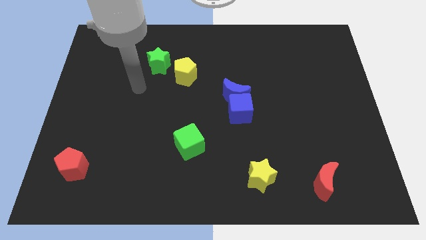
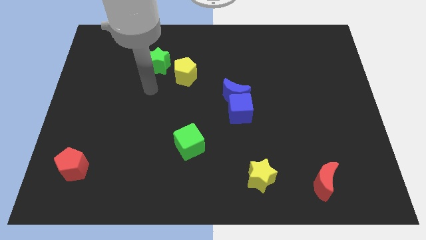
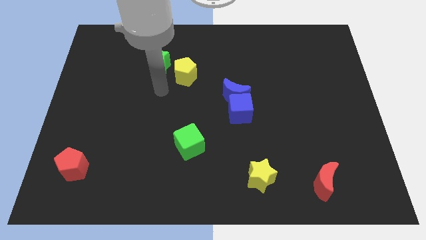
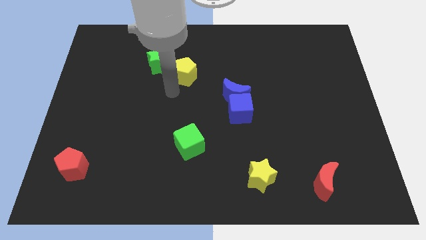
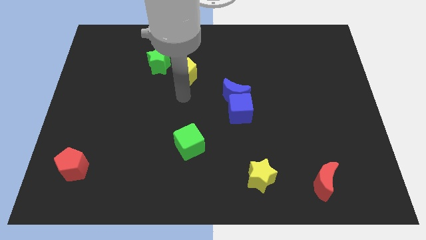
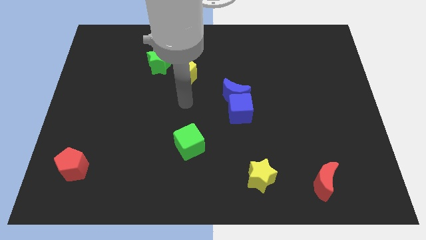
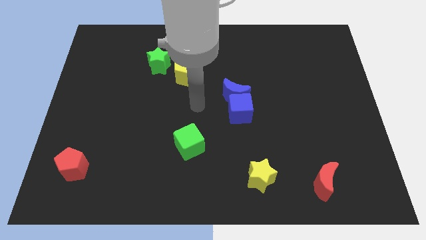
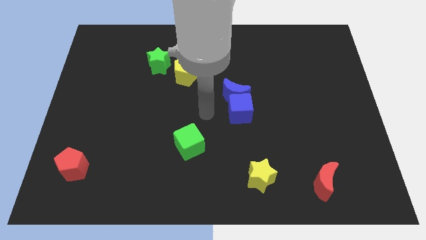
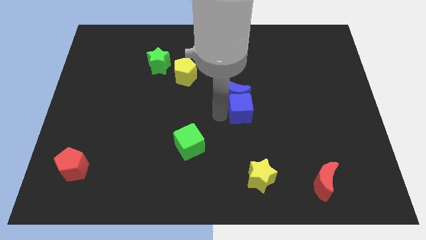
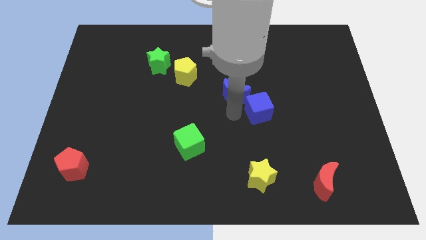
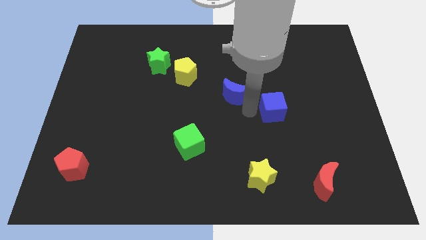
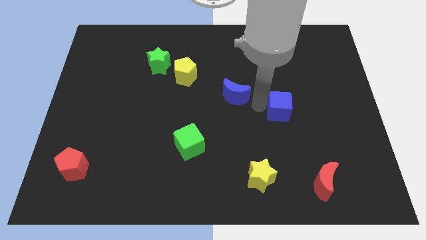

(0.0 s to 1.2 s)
separate the blue moon from the blue cube

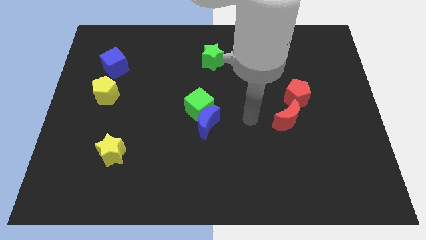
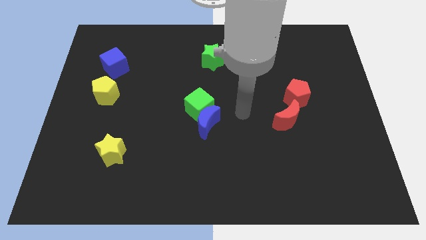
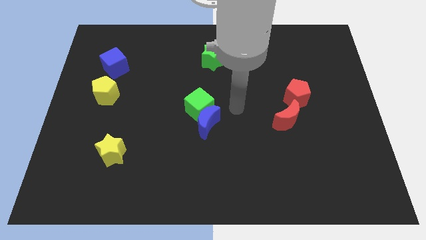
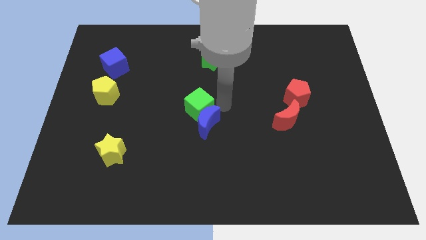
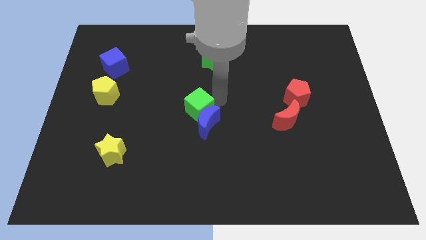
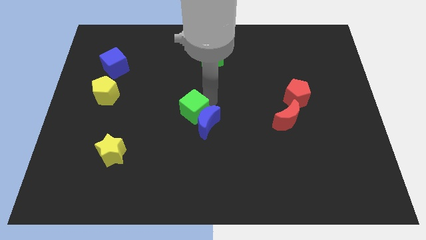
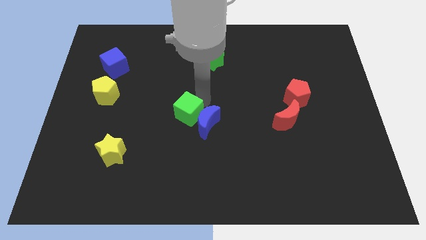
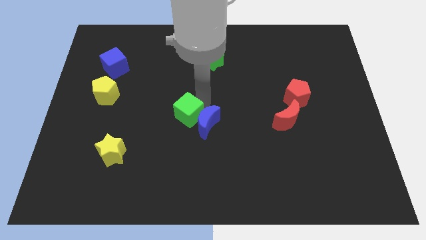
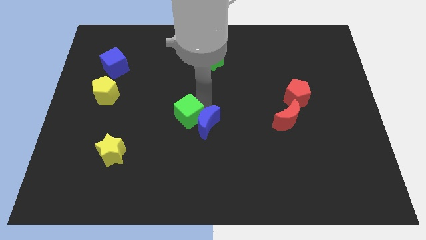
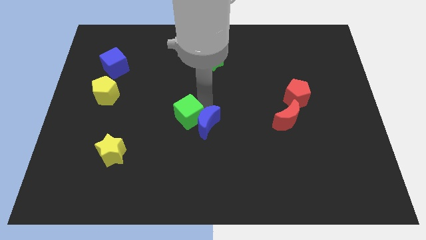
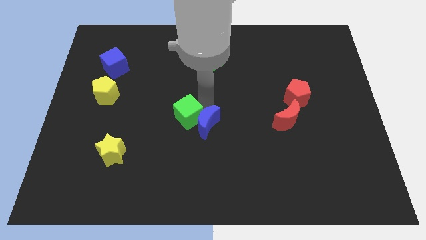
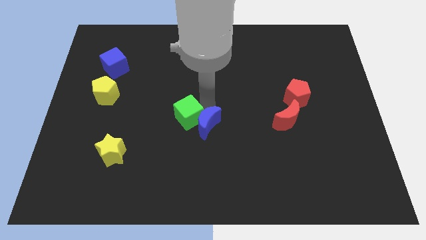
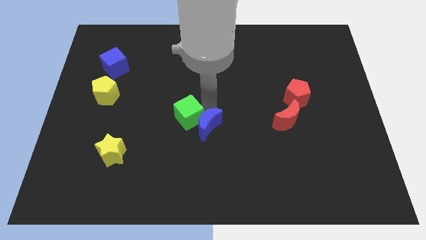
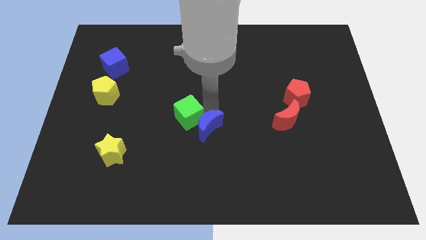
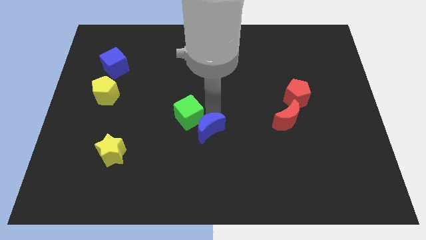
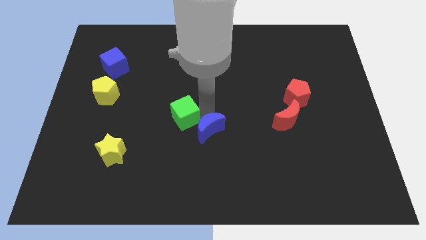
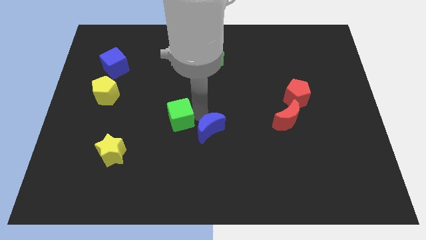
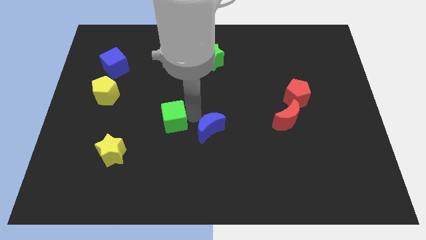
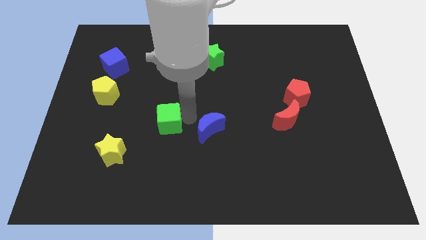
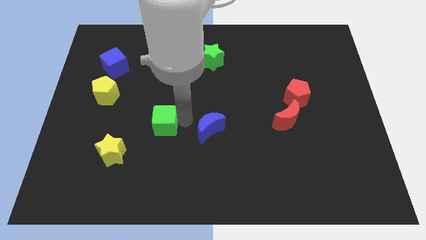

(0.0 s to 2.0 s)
separate the blue moon from the green cube

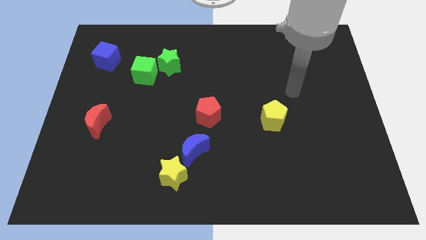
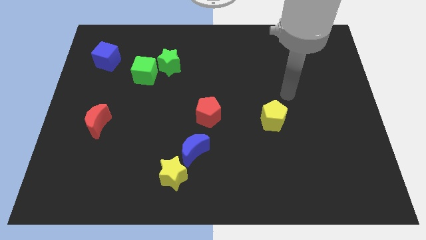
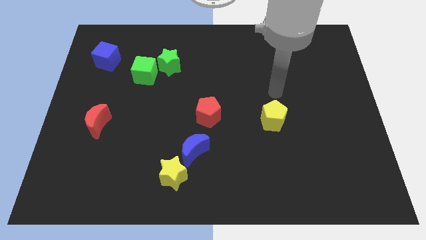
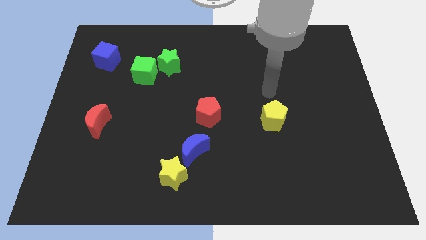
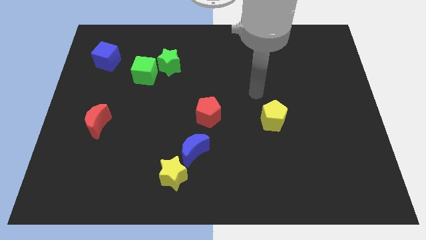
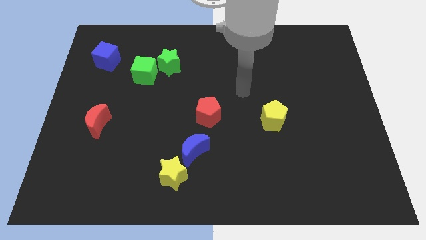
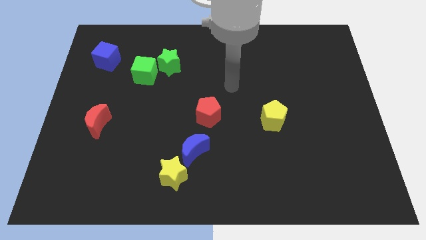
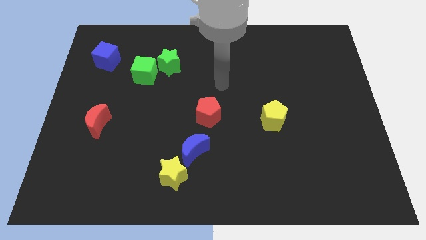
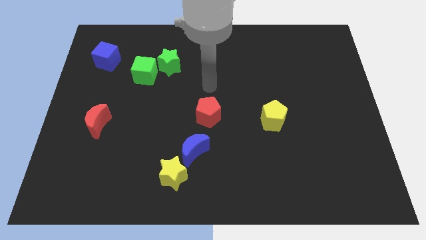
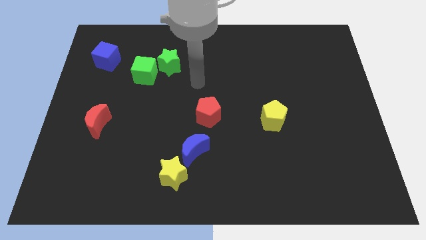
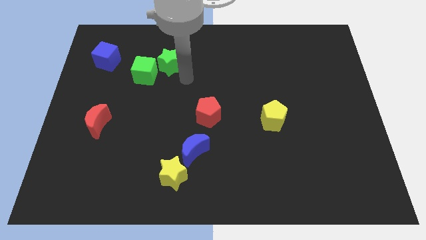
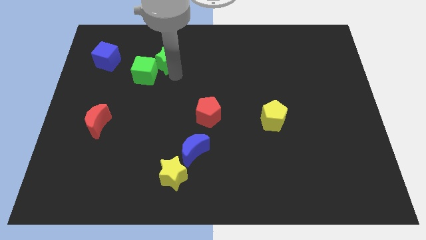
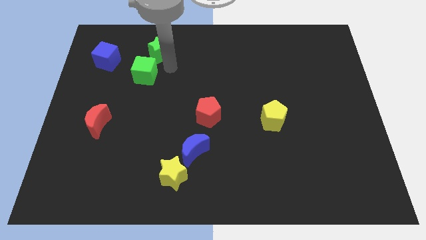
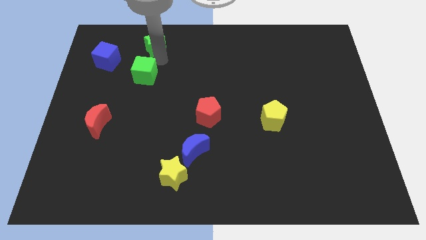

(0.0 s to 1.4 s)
move the green cube away from the green star

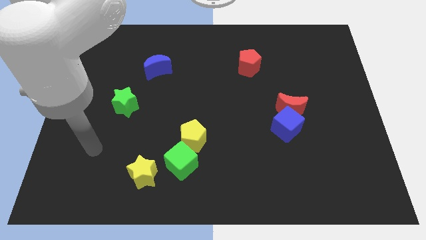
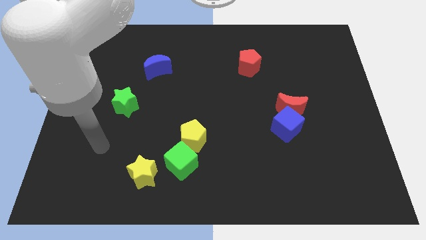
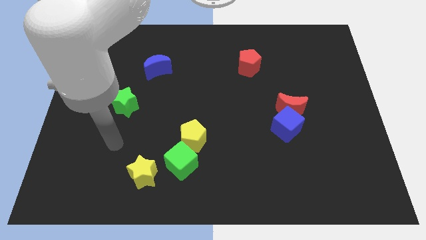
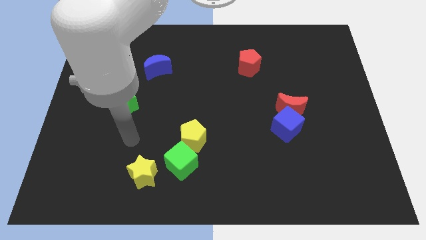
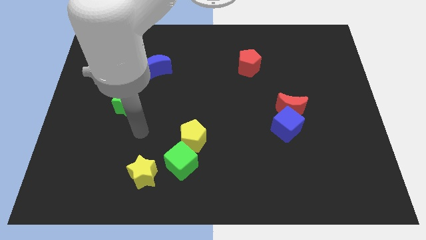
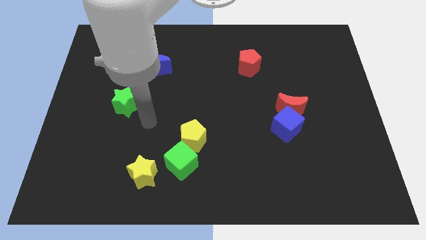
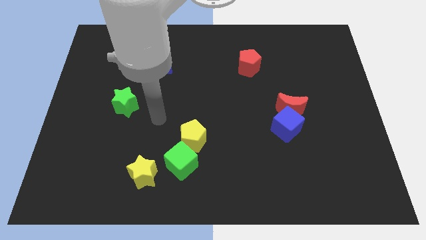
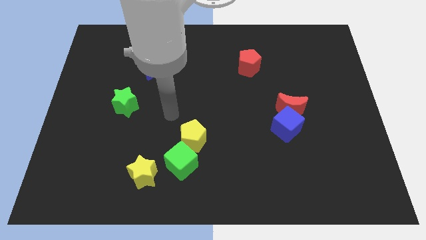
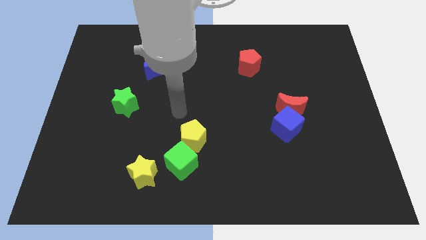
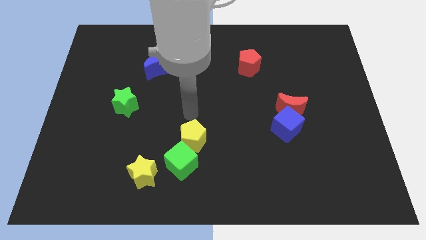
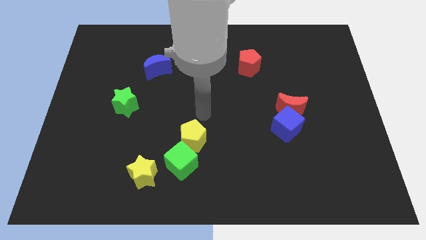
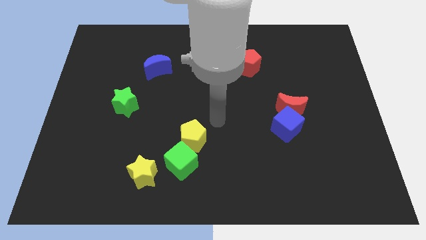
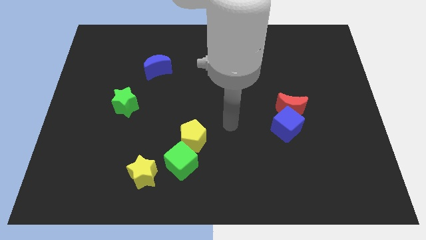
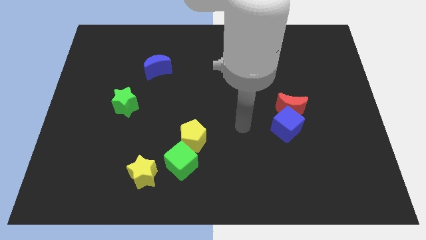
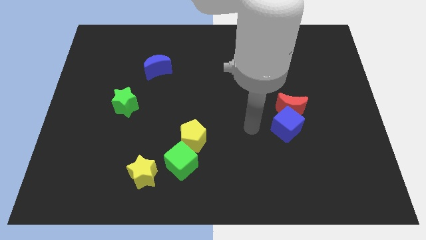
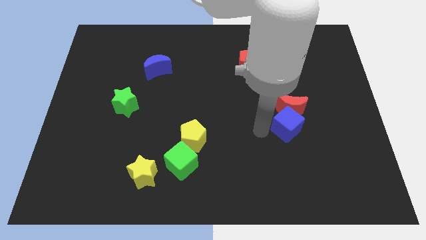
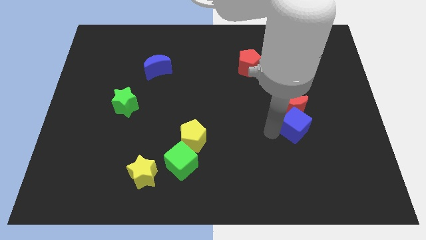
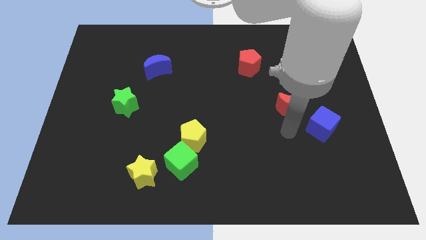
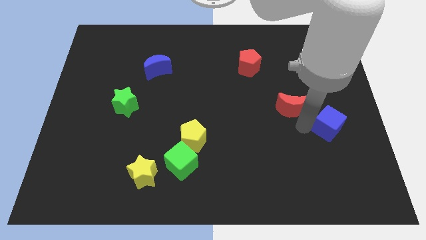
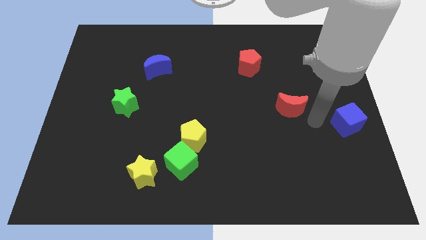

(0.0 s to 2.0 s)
pull the red moon apart from the blue cube

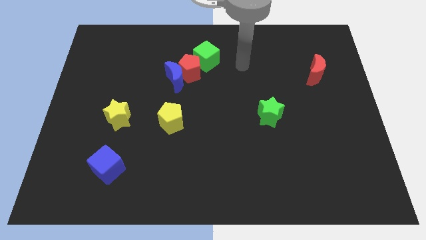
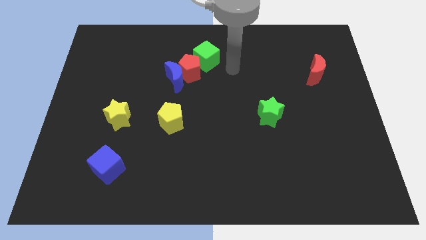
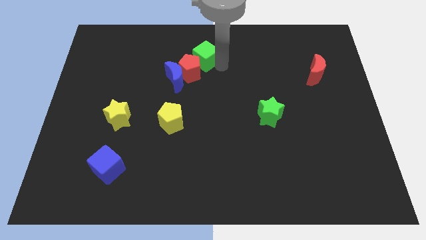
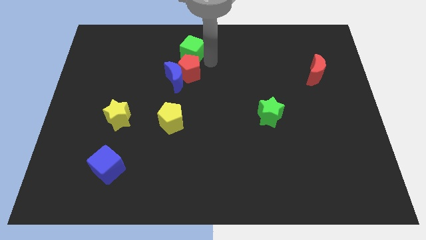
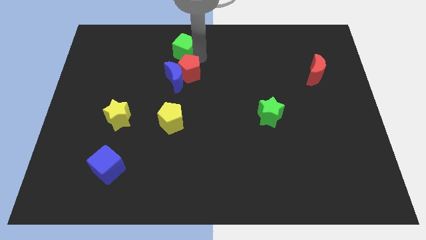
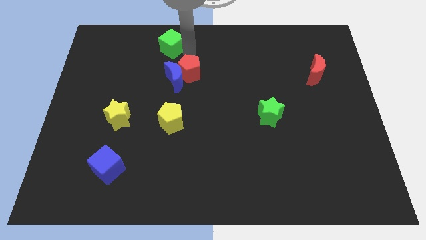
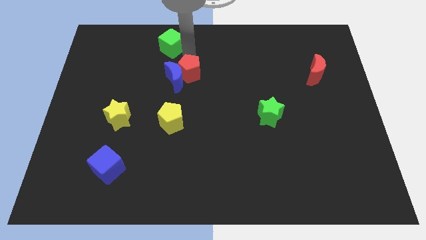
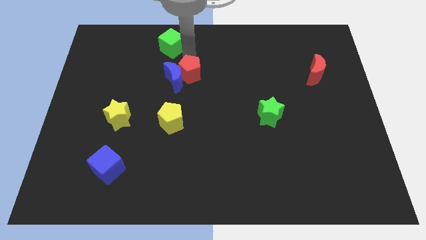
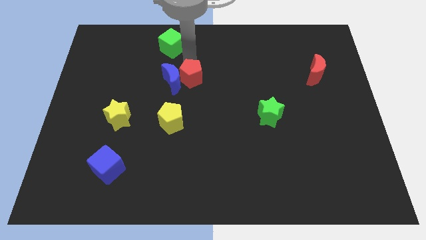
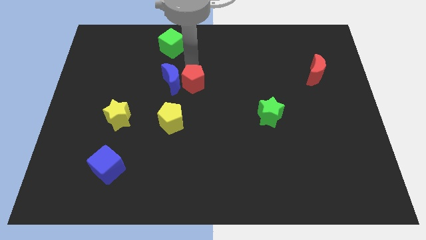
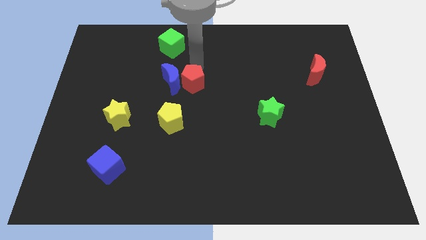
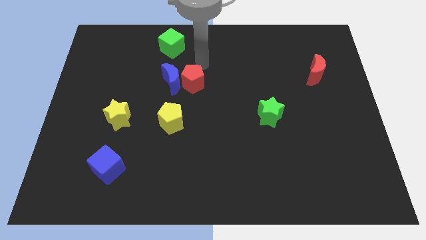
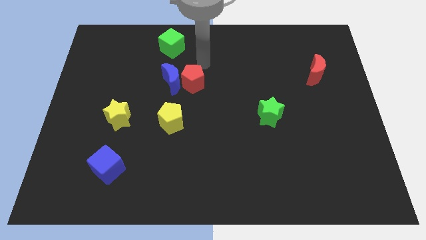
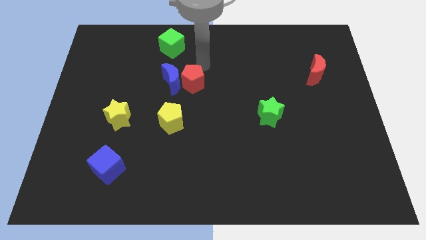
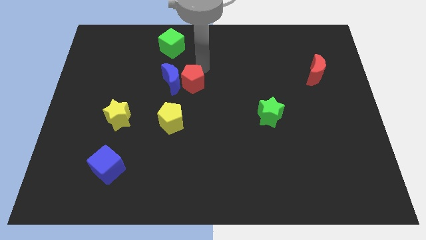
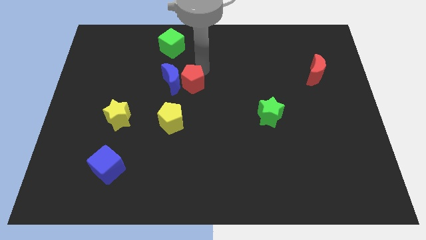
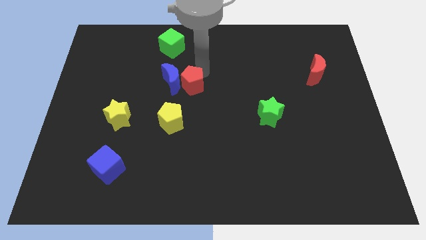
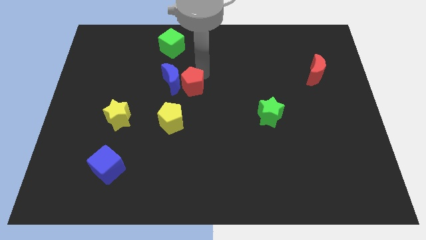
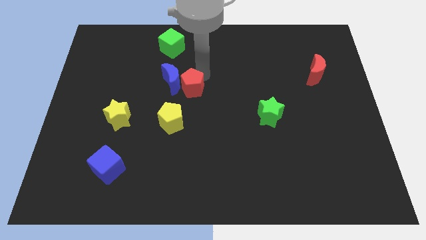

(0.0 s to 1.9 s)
separate the red pentagon from the blue moon and green cube

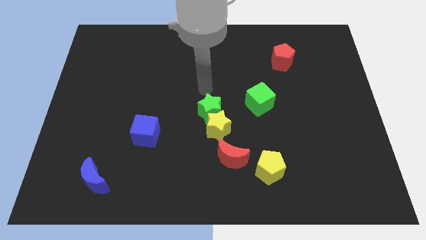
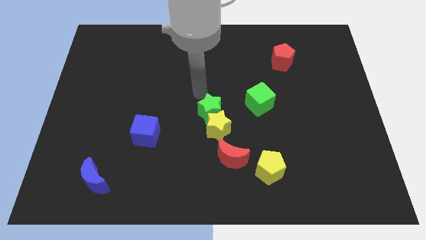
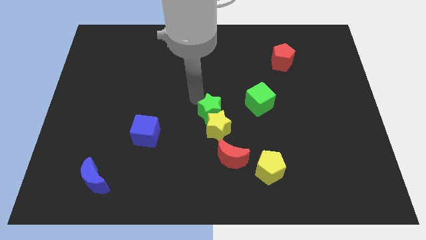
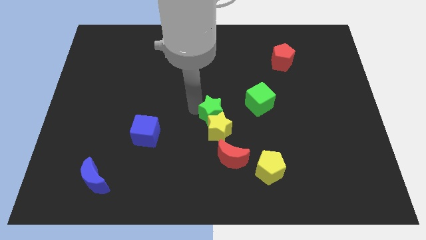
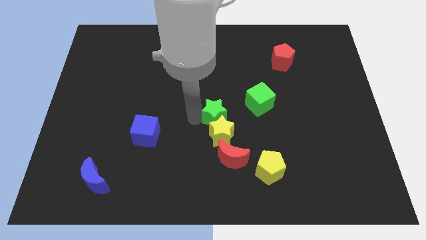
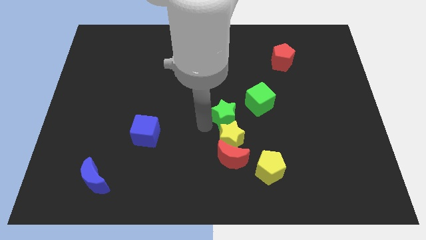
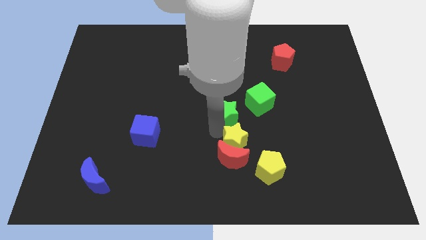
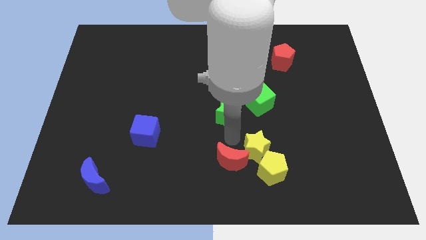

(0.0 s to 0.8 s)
move the green star away from the yellow star
